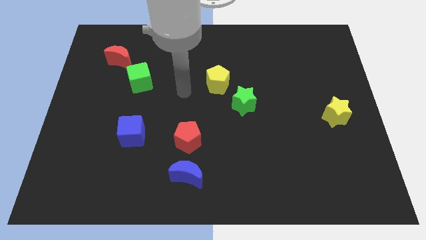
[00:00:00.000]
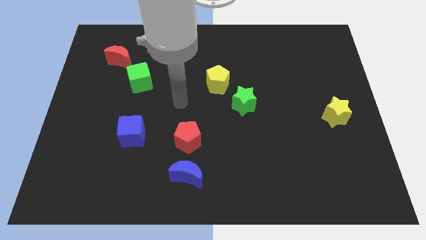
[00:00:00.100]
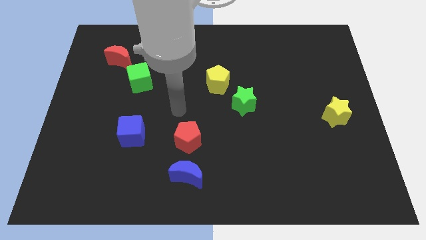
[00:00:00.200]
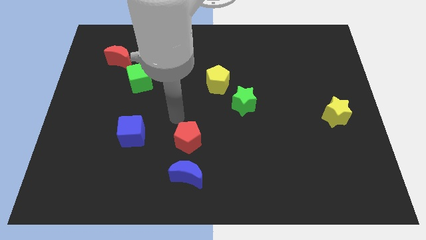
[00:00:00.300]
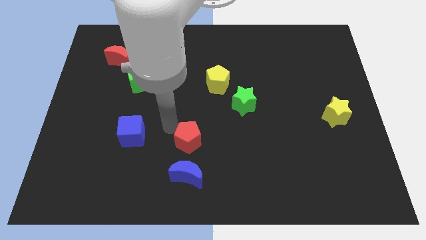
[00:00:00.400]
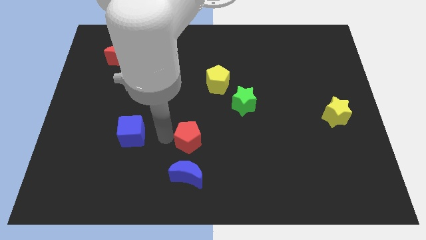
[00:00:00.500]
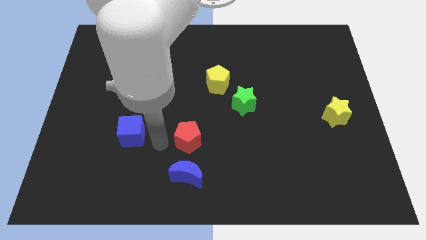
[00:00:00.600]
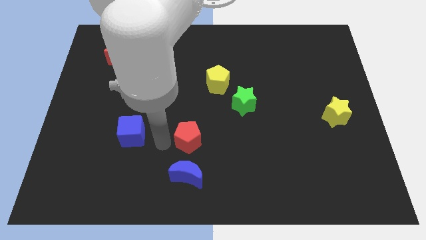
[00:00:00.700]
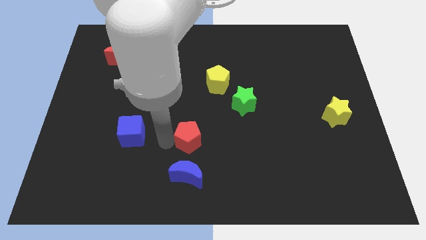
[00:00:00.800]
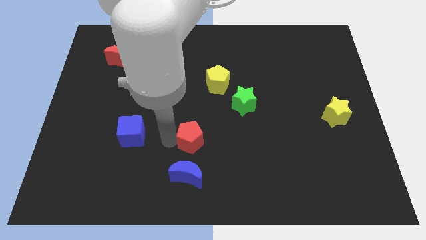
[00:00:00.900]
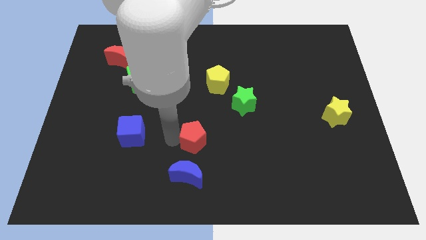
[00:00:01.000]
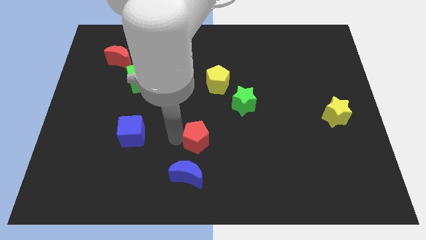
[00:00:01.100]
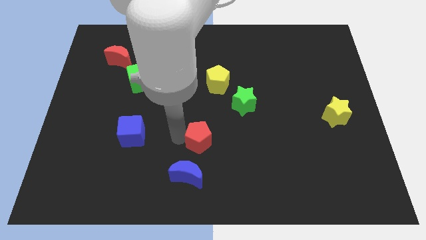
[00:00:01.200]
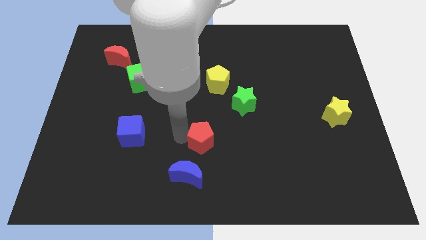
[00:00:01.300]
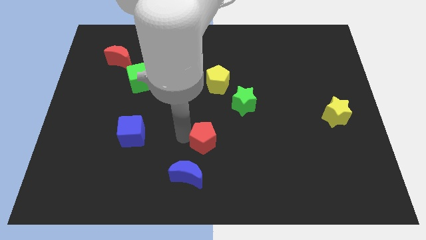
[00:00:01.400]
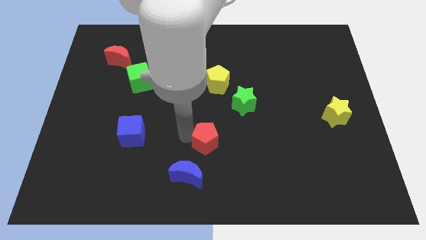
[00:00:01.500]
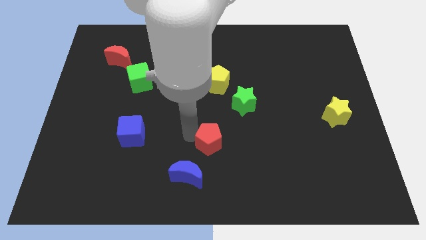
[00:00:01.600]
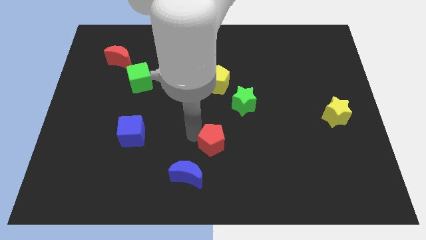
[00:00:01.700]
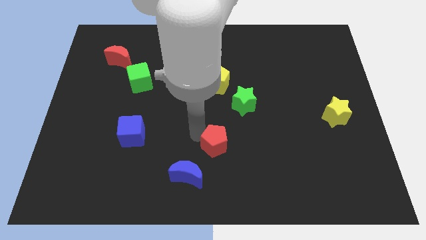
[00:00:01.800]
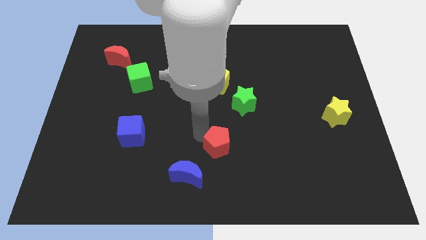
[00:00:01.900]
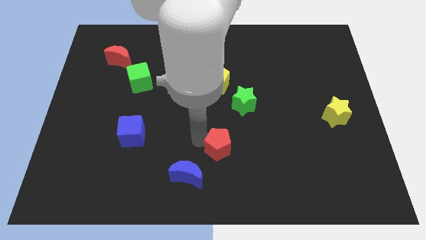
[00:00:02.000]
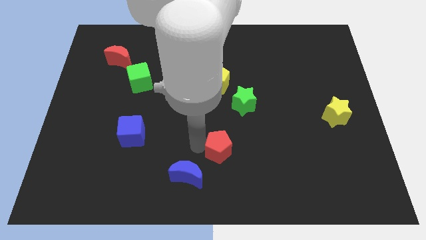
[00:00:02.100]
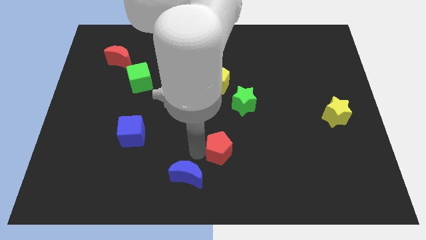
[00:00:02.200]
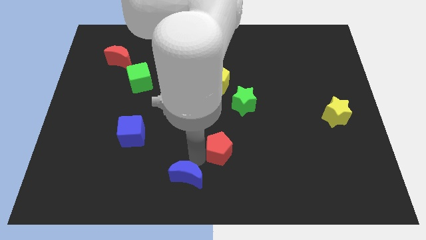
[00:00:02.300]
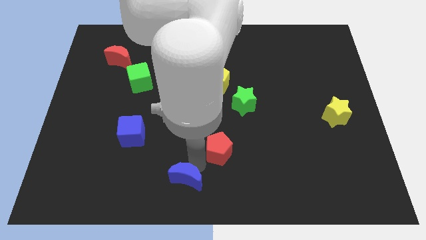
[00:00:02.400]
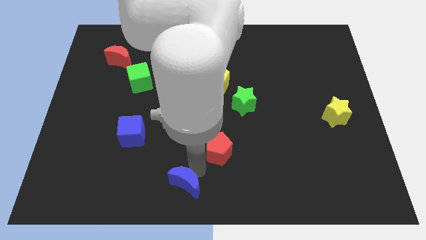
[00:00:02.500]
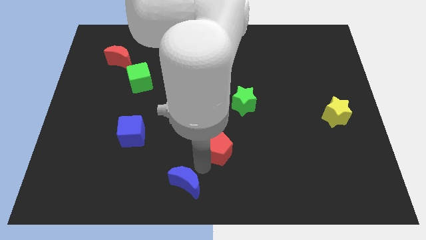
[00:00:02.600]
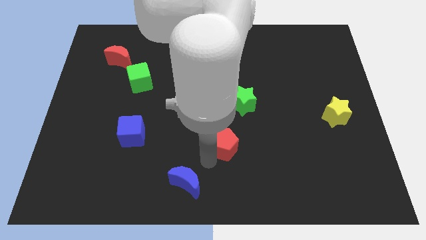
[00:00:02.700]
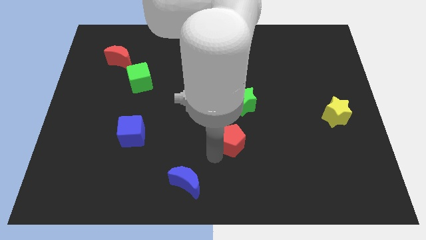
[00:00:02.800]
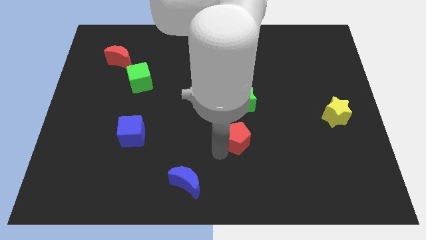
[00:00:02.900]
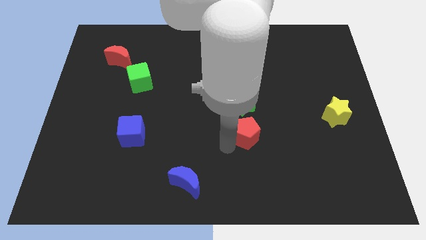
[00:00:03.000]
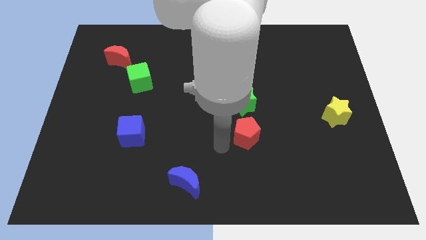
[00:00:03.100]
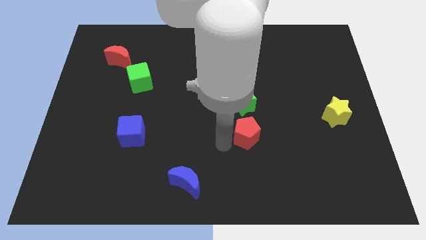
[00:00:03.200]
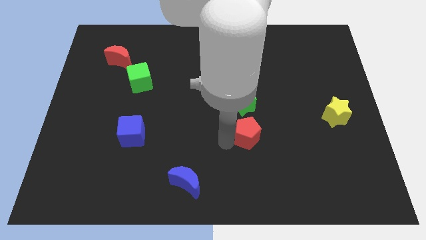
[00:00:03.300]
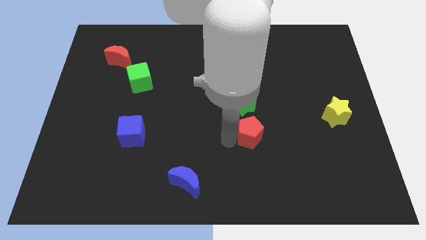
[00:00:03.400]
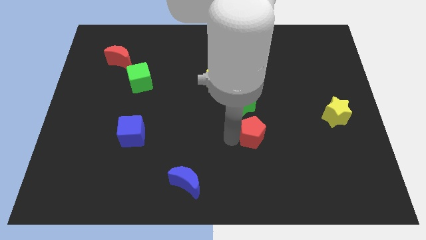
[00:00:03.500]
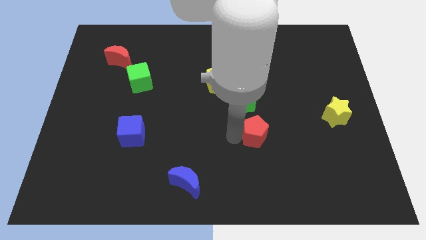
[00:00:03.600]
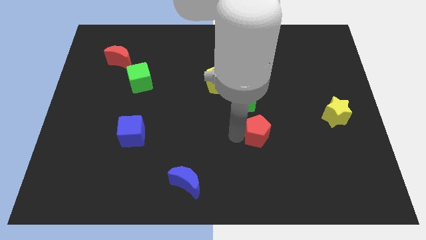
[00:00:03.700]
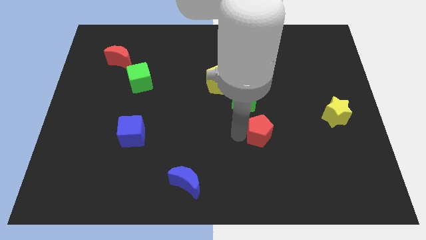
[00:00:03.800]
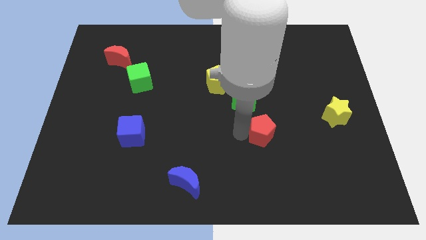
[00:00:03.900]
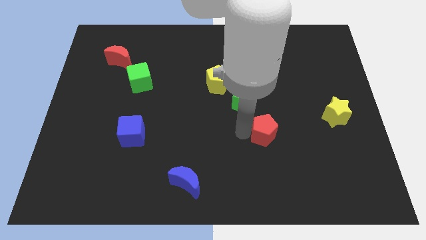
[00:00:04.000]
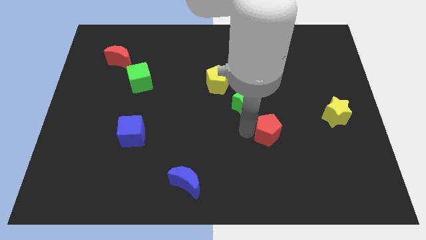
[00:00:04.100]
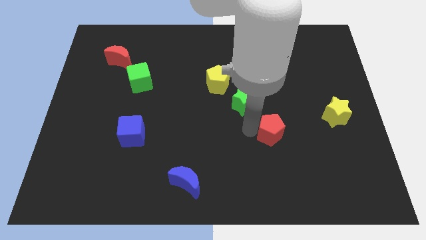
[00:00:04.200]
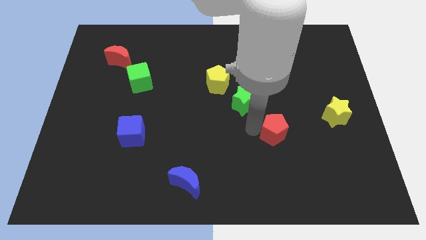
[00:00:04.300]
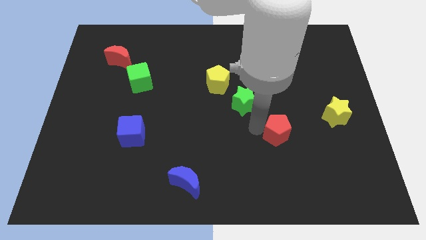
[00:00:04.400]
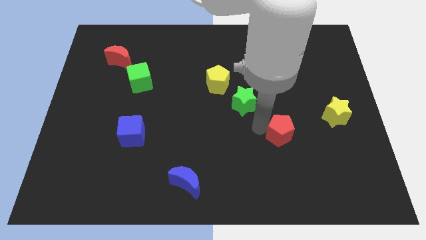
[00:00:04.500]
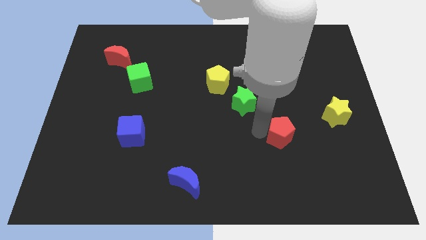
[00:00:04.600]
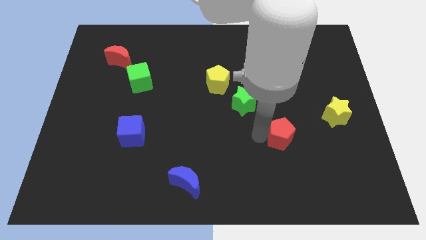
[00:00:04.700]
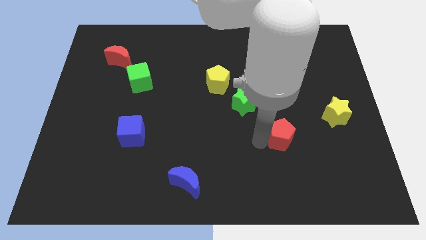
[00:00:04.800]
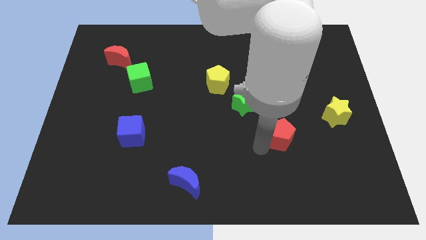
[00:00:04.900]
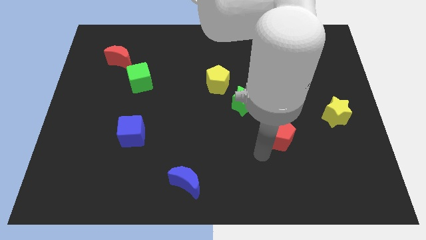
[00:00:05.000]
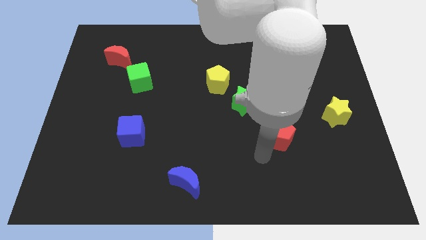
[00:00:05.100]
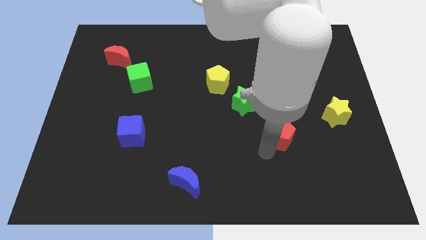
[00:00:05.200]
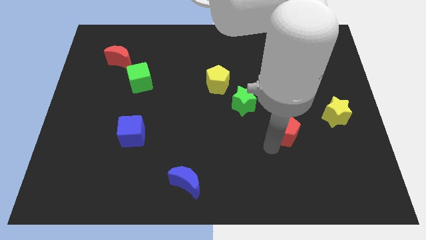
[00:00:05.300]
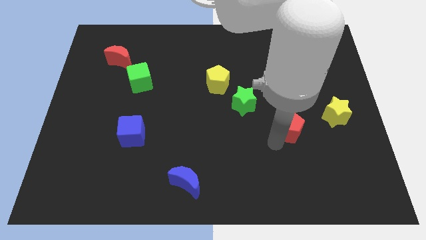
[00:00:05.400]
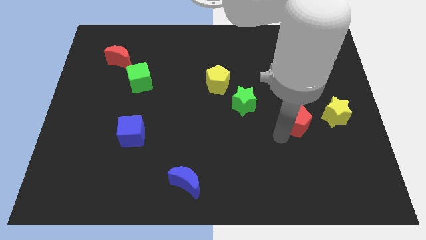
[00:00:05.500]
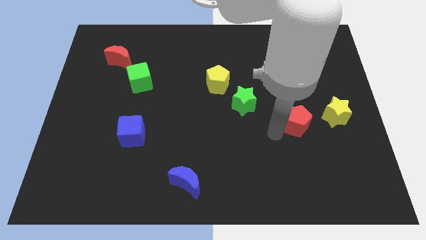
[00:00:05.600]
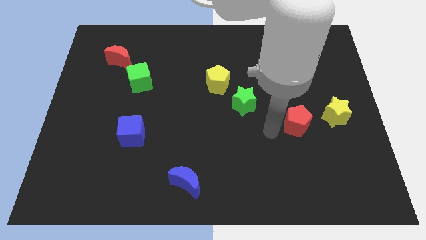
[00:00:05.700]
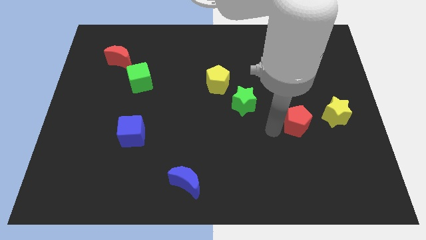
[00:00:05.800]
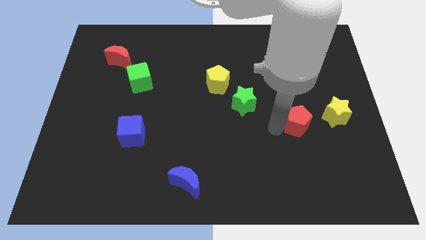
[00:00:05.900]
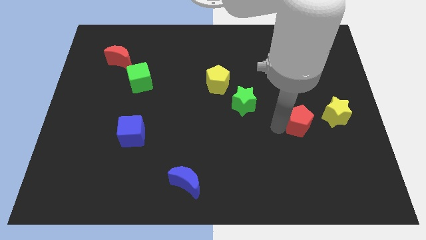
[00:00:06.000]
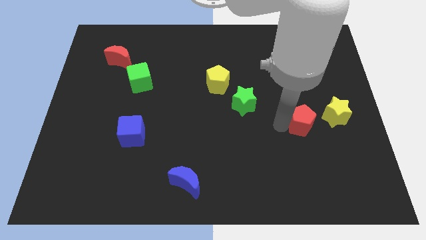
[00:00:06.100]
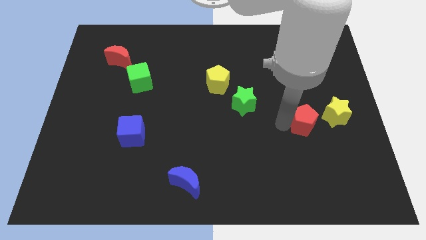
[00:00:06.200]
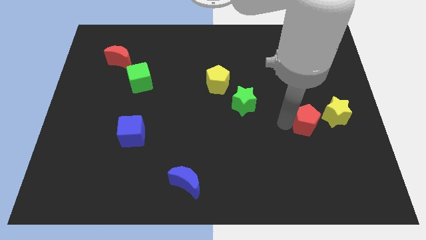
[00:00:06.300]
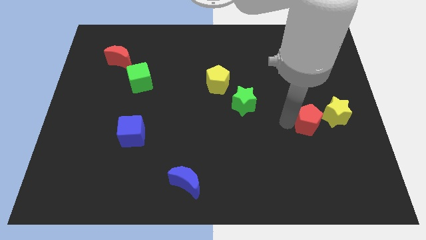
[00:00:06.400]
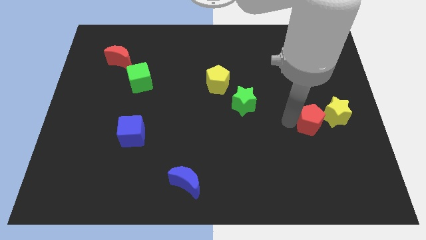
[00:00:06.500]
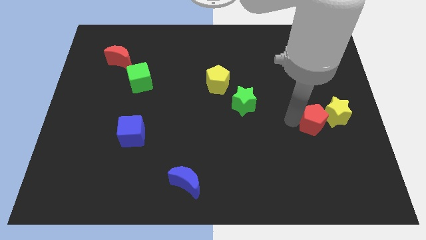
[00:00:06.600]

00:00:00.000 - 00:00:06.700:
put the red pentagon close to the yellow star

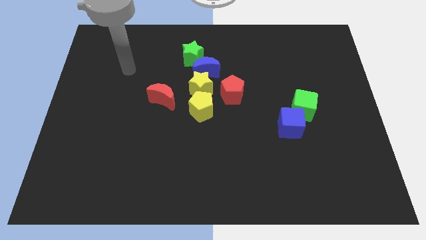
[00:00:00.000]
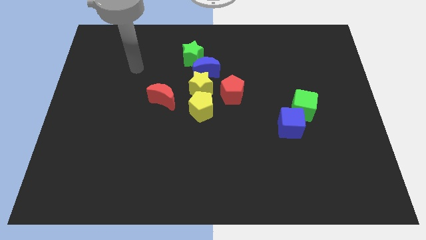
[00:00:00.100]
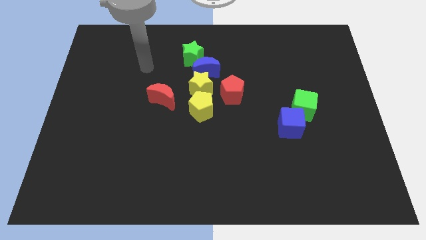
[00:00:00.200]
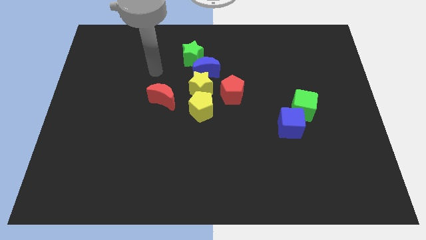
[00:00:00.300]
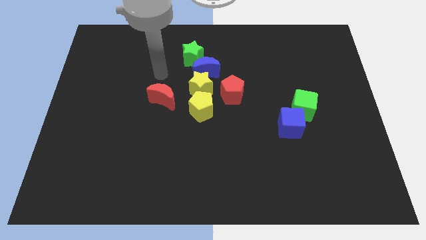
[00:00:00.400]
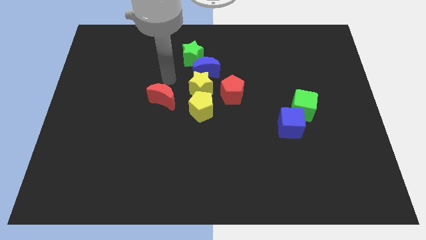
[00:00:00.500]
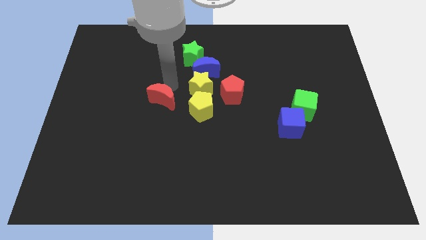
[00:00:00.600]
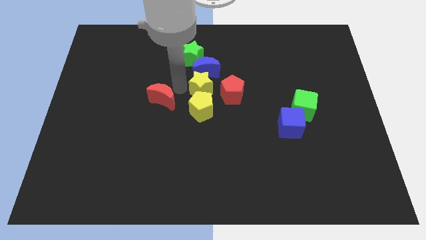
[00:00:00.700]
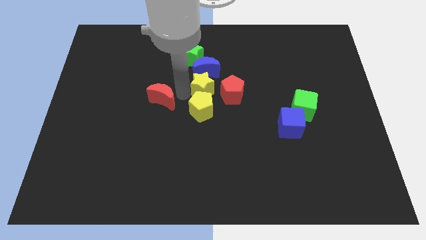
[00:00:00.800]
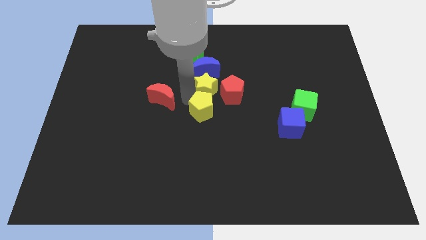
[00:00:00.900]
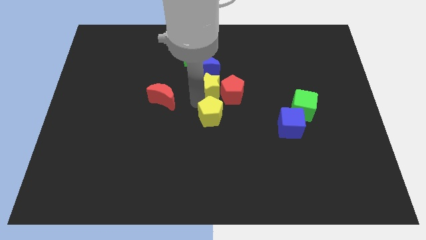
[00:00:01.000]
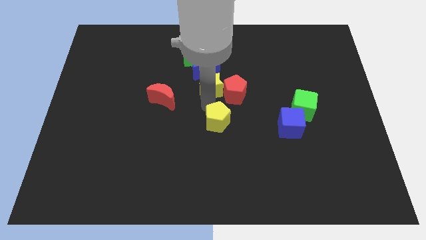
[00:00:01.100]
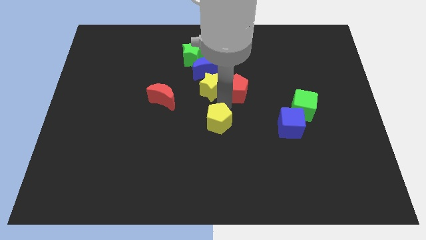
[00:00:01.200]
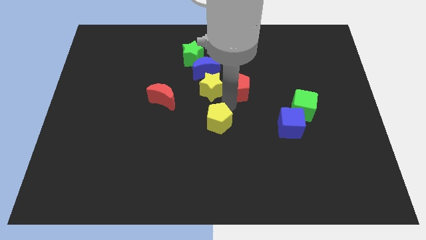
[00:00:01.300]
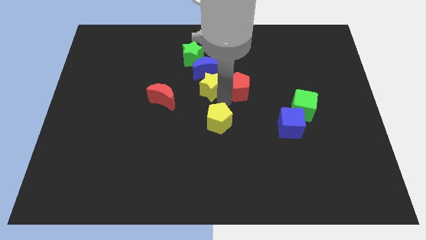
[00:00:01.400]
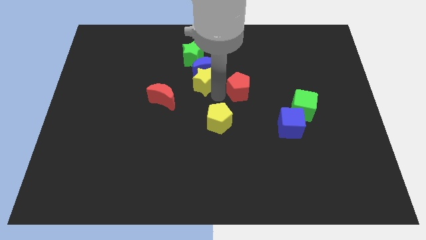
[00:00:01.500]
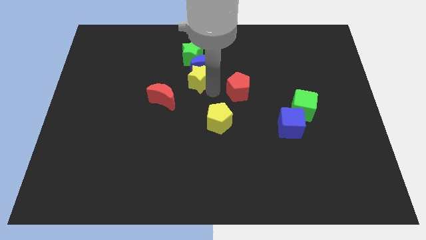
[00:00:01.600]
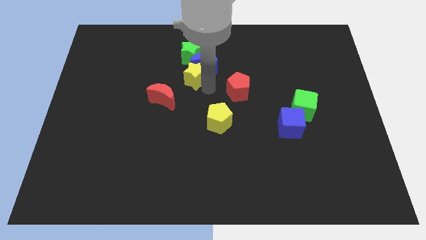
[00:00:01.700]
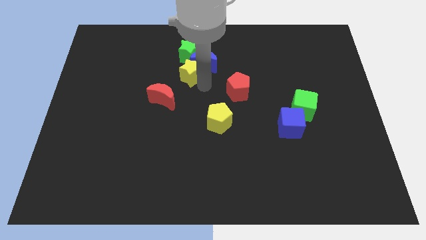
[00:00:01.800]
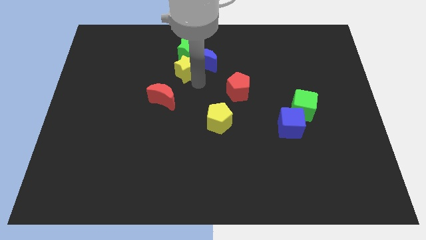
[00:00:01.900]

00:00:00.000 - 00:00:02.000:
move the yellow star towards the green star
